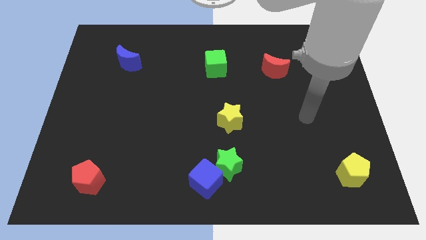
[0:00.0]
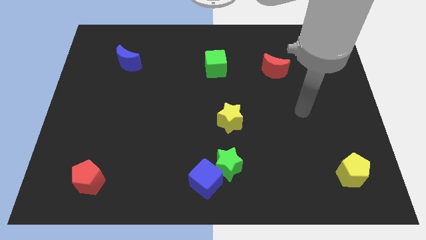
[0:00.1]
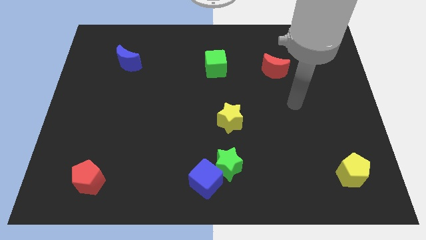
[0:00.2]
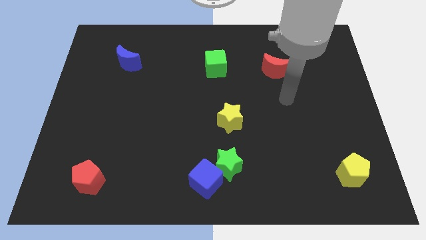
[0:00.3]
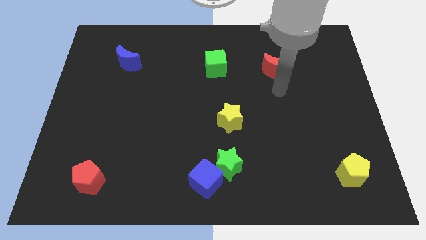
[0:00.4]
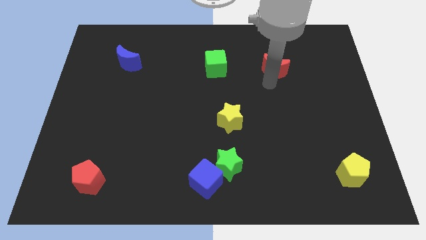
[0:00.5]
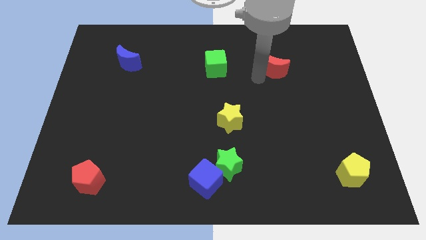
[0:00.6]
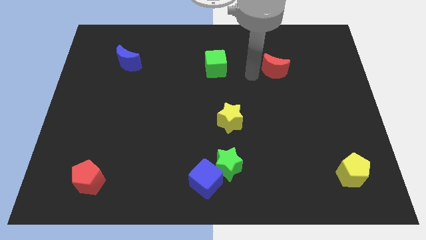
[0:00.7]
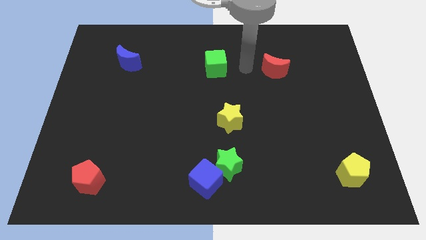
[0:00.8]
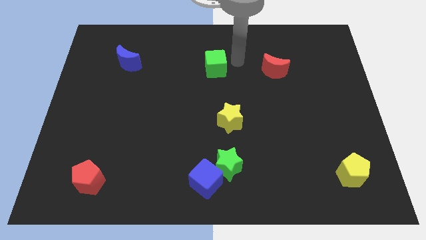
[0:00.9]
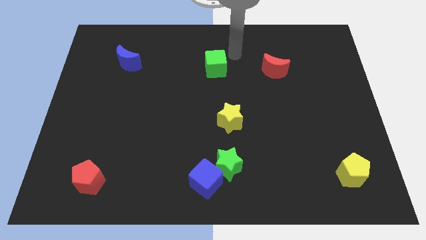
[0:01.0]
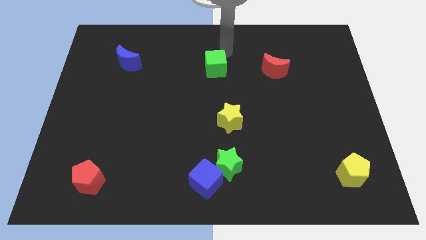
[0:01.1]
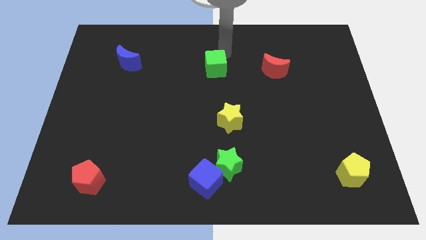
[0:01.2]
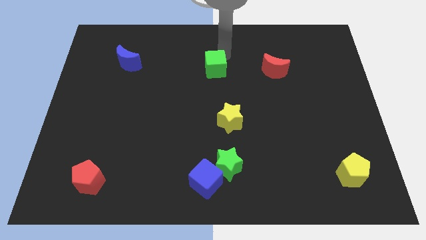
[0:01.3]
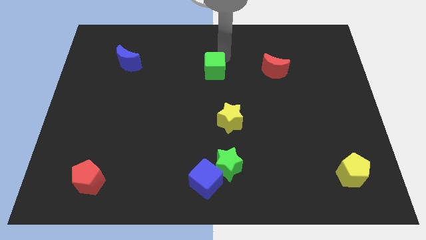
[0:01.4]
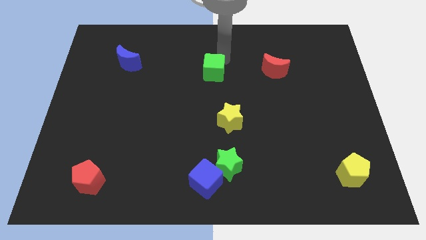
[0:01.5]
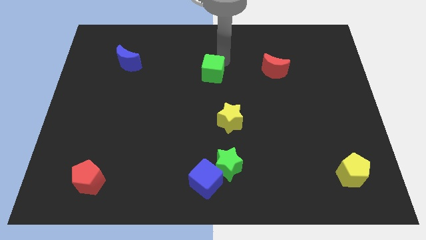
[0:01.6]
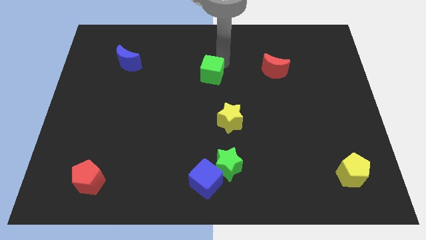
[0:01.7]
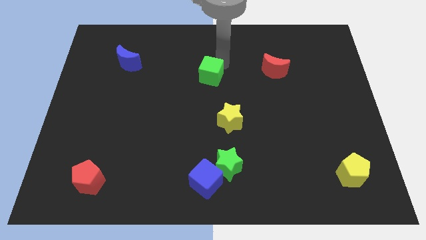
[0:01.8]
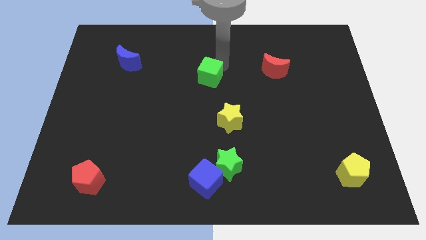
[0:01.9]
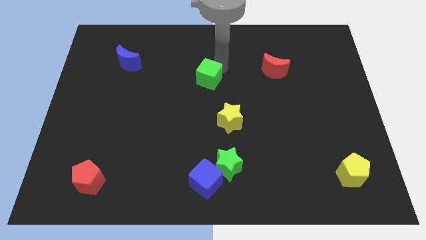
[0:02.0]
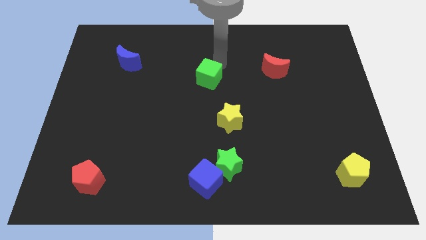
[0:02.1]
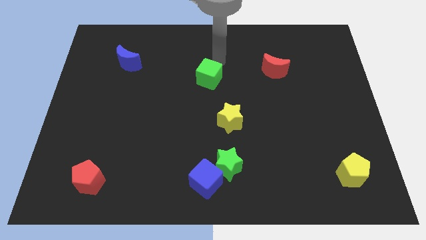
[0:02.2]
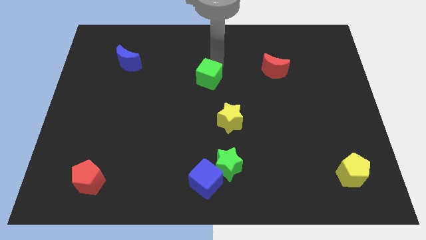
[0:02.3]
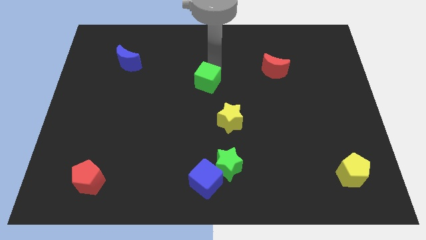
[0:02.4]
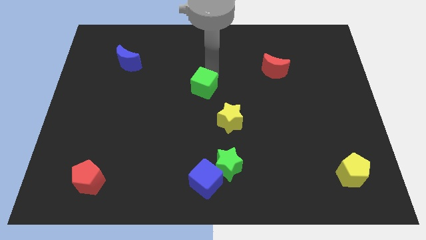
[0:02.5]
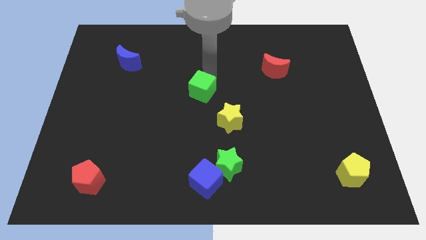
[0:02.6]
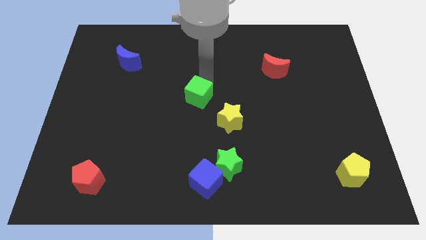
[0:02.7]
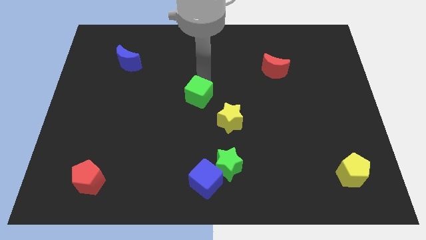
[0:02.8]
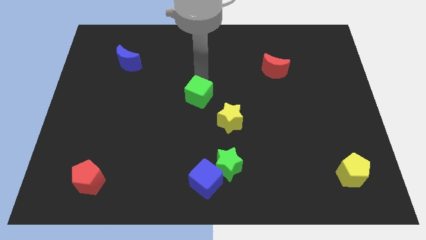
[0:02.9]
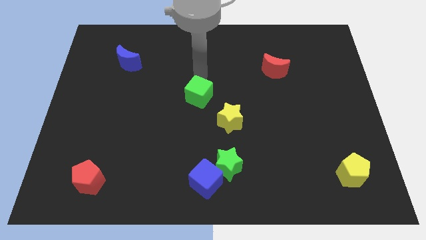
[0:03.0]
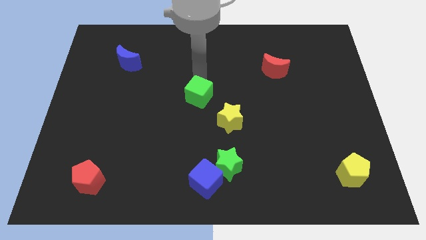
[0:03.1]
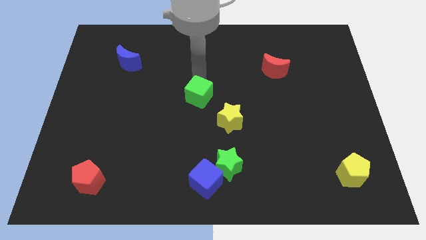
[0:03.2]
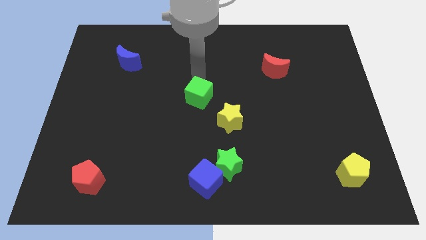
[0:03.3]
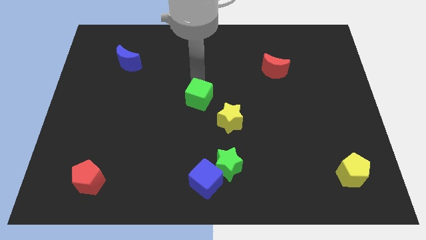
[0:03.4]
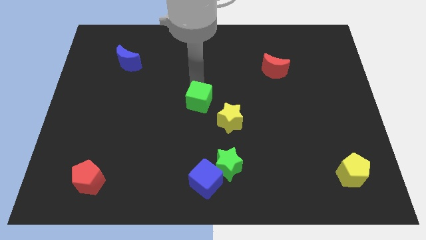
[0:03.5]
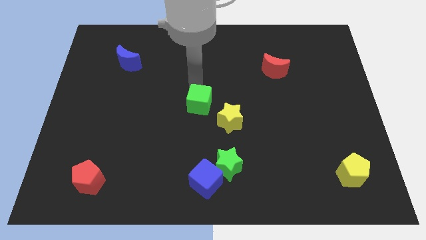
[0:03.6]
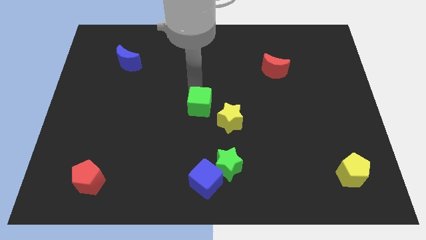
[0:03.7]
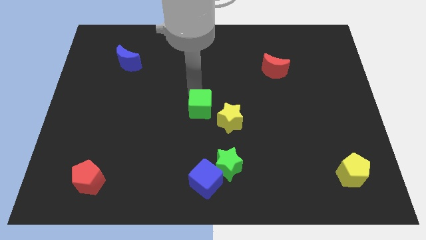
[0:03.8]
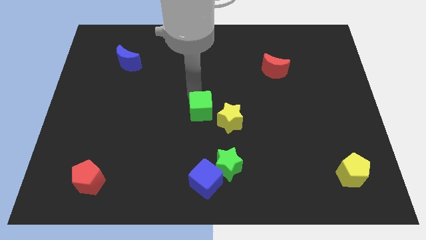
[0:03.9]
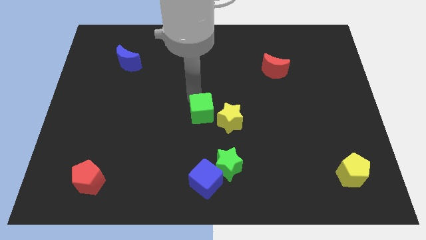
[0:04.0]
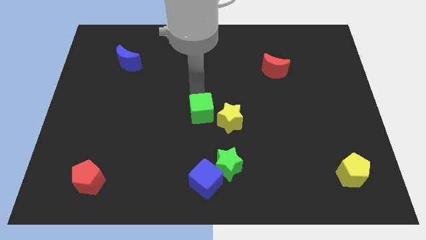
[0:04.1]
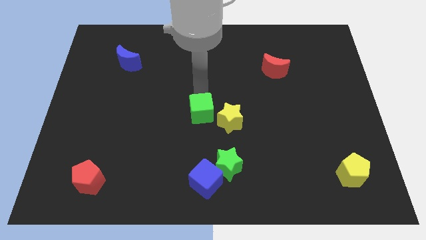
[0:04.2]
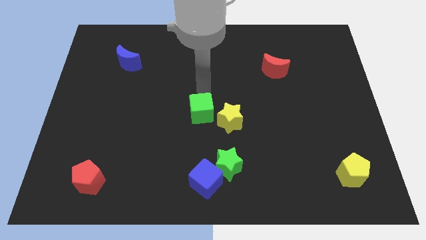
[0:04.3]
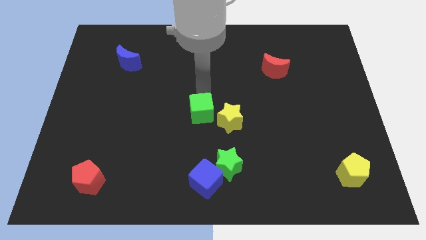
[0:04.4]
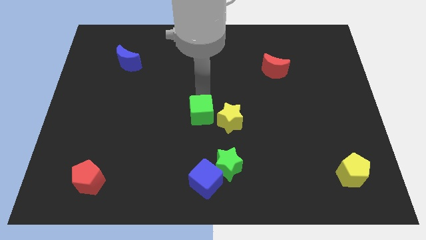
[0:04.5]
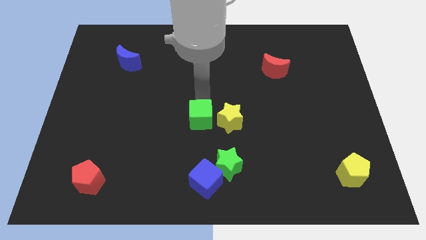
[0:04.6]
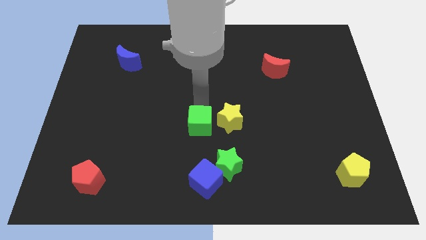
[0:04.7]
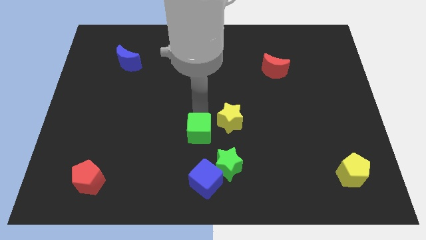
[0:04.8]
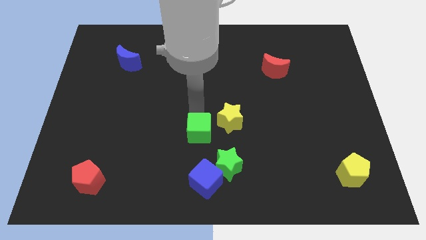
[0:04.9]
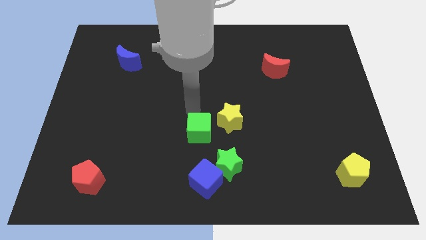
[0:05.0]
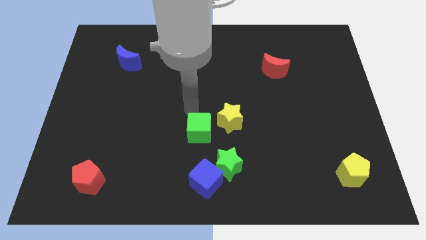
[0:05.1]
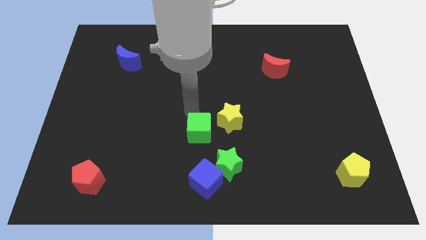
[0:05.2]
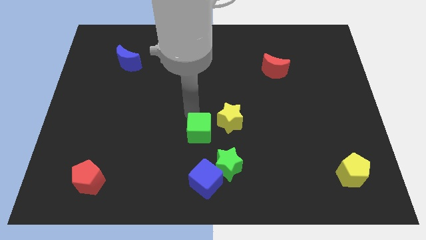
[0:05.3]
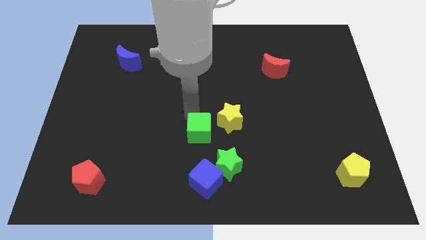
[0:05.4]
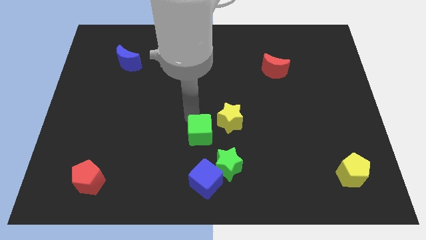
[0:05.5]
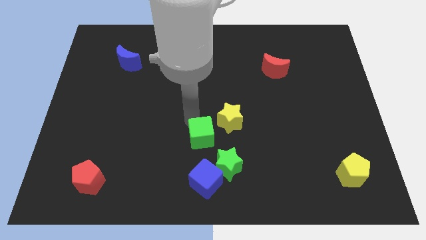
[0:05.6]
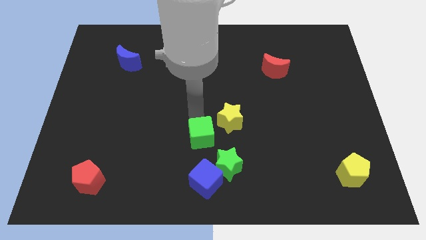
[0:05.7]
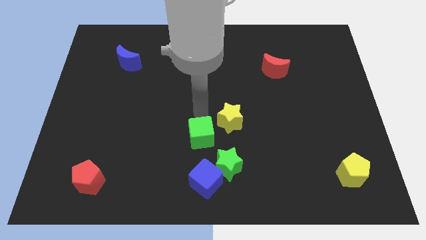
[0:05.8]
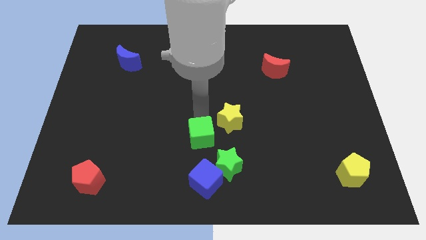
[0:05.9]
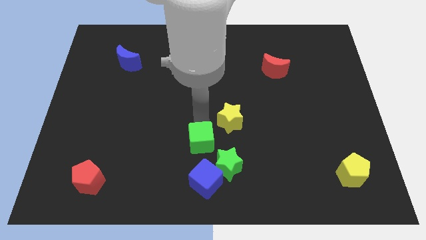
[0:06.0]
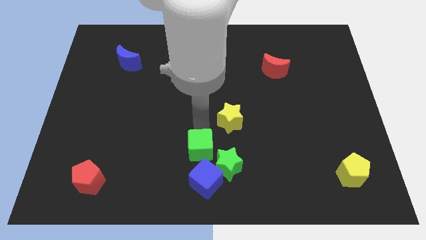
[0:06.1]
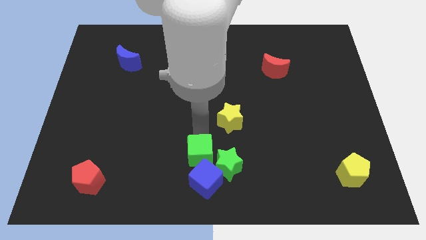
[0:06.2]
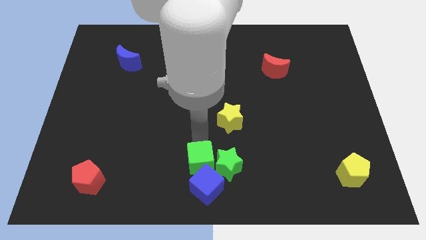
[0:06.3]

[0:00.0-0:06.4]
move the green cube to the blue cube

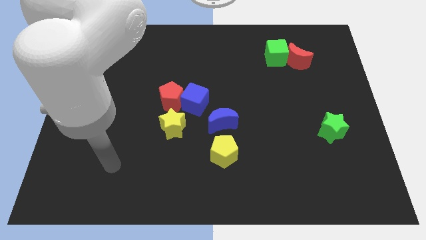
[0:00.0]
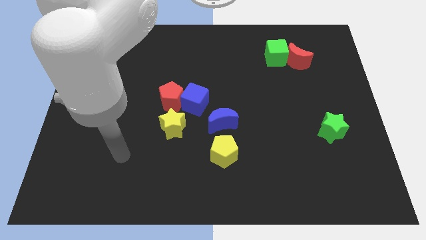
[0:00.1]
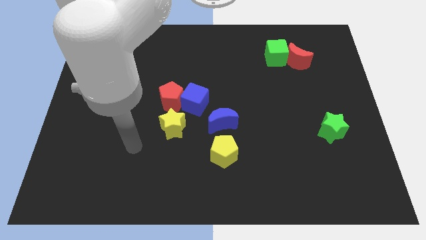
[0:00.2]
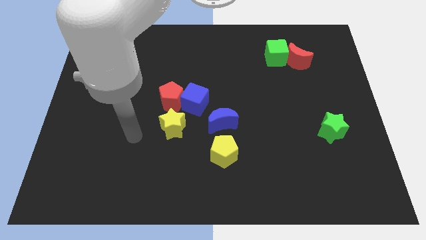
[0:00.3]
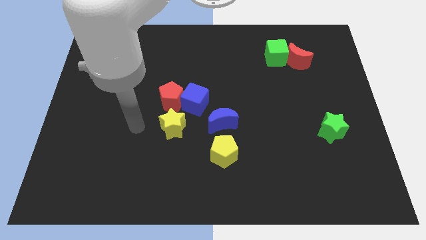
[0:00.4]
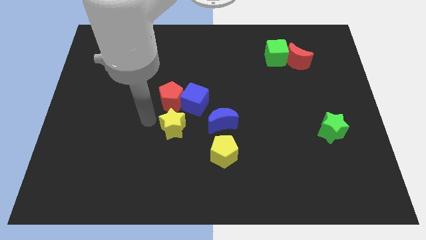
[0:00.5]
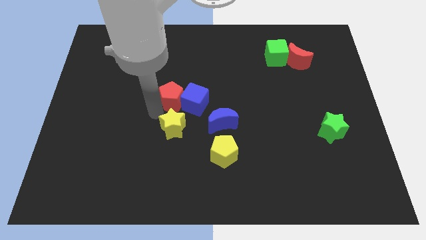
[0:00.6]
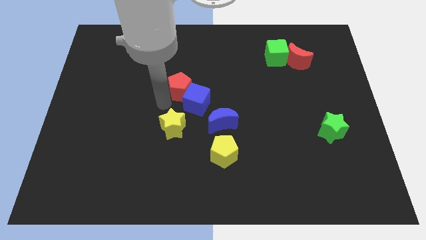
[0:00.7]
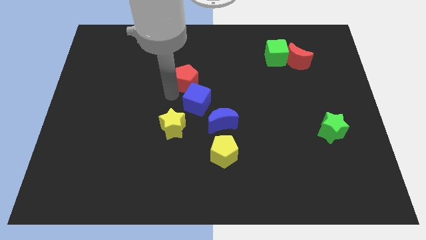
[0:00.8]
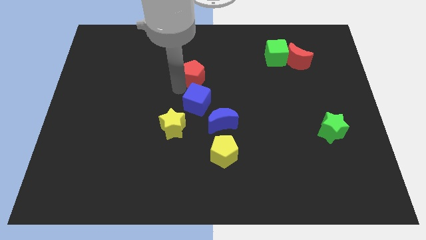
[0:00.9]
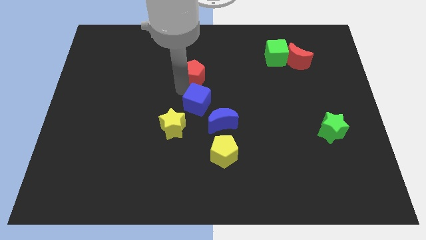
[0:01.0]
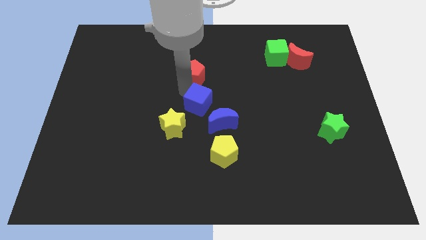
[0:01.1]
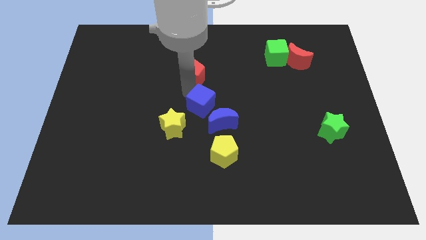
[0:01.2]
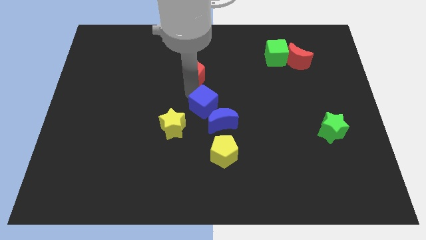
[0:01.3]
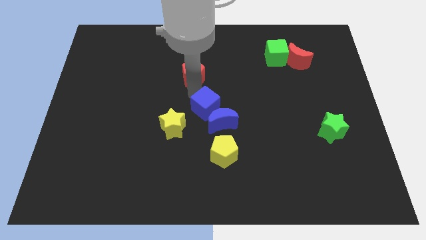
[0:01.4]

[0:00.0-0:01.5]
slide the blue cube close to the blue moon
